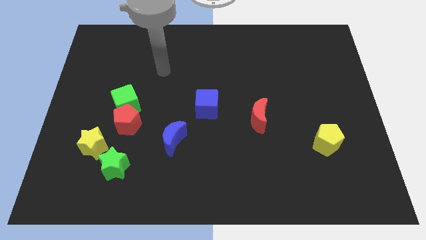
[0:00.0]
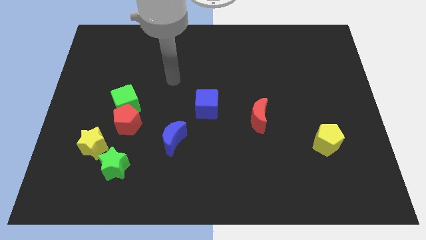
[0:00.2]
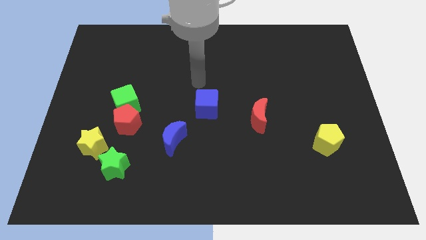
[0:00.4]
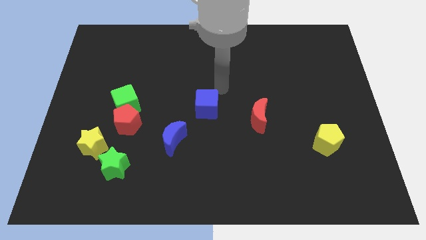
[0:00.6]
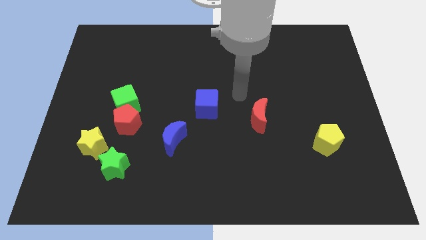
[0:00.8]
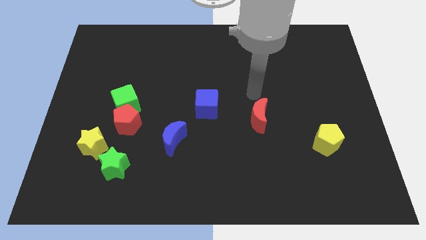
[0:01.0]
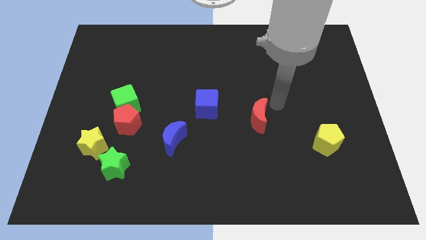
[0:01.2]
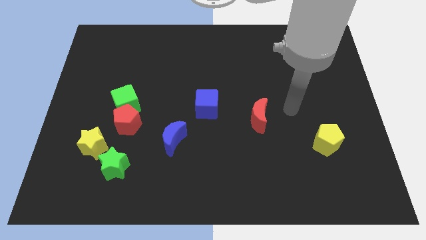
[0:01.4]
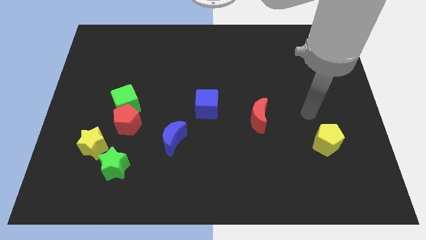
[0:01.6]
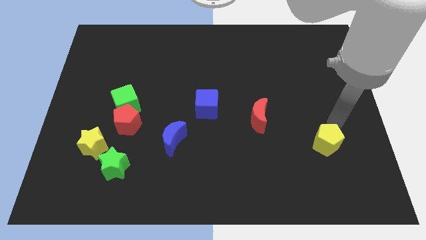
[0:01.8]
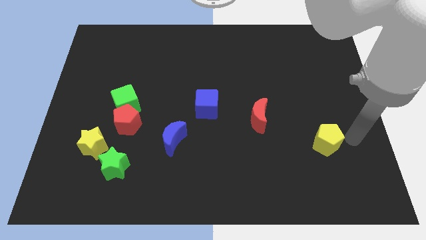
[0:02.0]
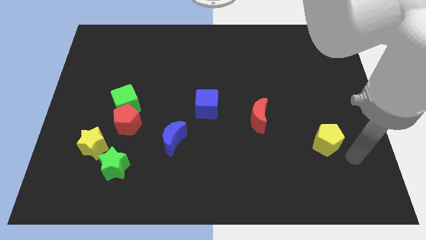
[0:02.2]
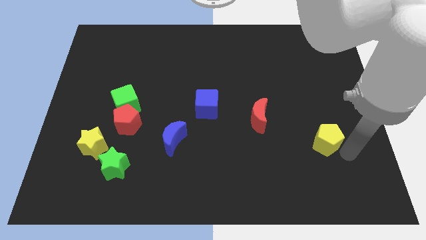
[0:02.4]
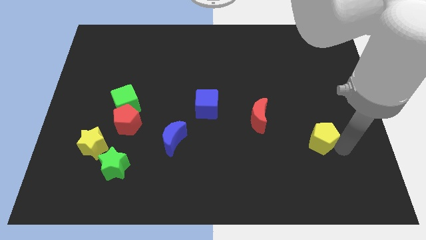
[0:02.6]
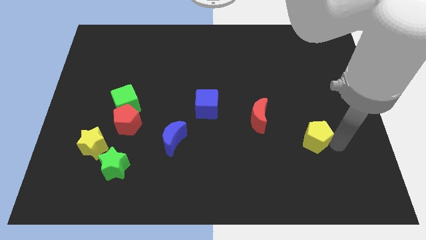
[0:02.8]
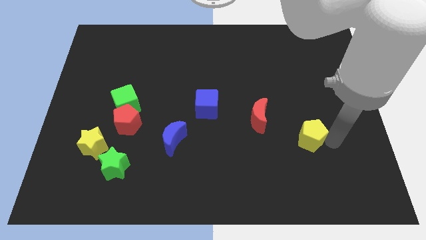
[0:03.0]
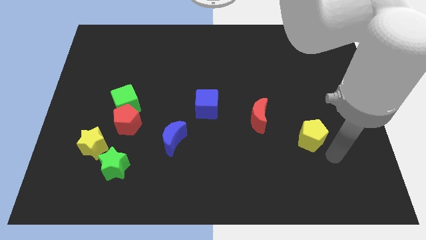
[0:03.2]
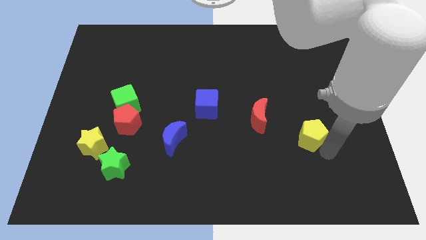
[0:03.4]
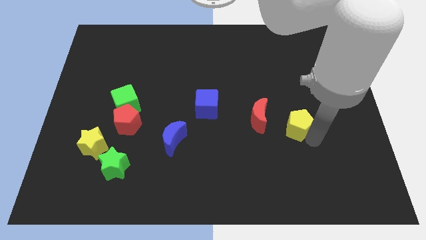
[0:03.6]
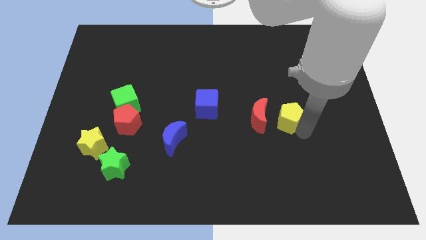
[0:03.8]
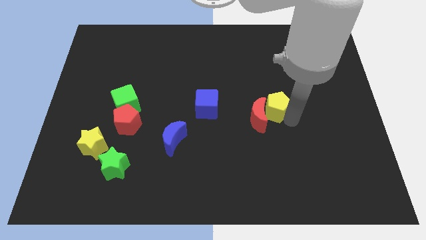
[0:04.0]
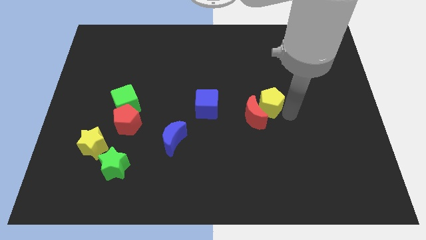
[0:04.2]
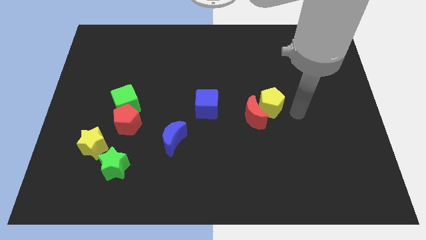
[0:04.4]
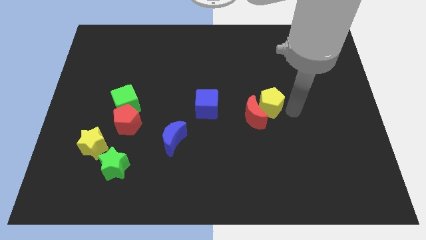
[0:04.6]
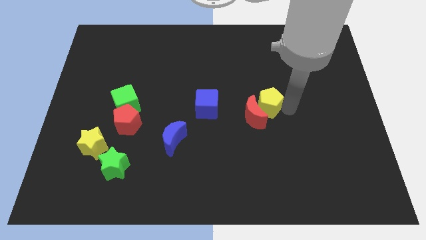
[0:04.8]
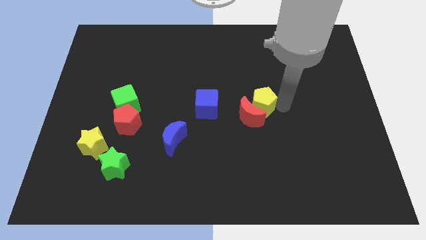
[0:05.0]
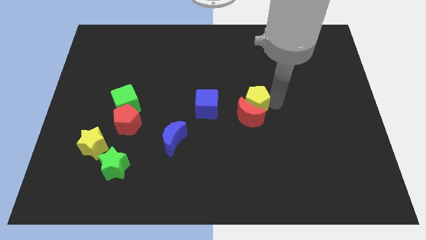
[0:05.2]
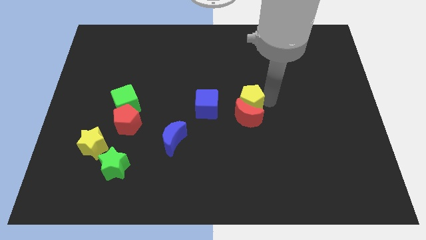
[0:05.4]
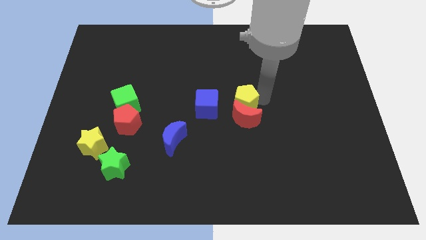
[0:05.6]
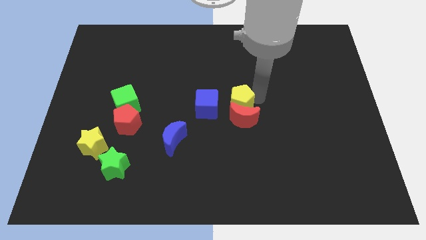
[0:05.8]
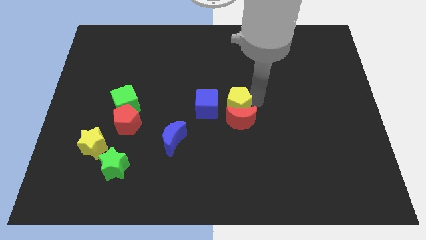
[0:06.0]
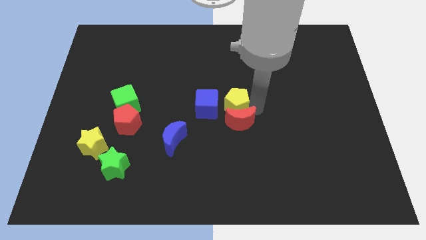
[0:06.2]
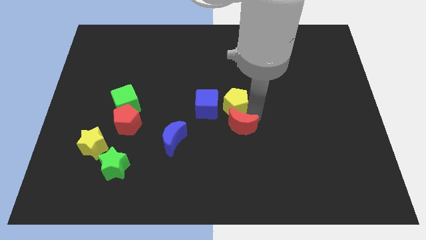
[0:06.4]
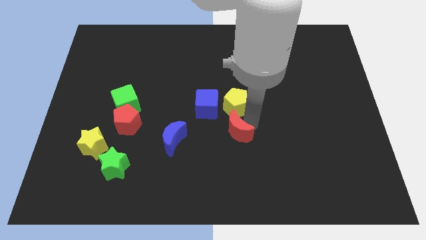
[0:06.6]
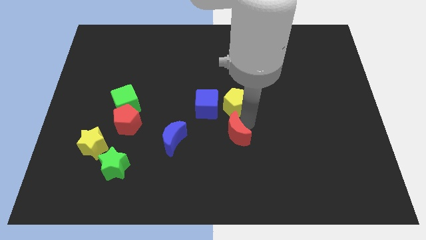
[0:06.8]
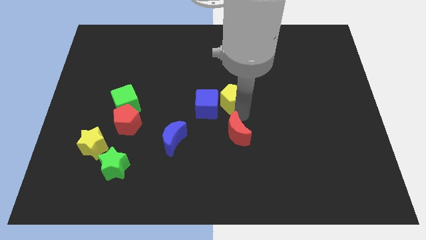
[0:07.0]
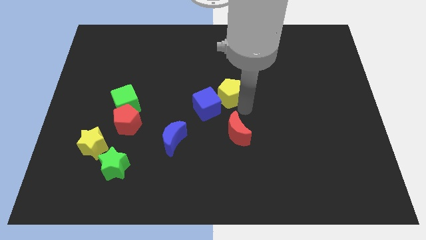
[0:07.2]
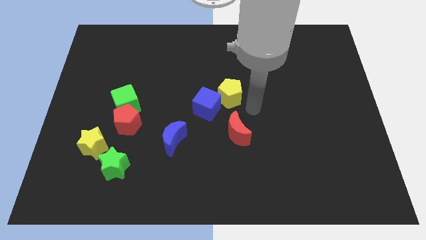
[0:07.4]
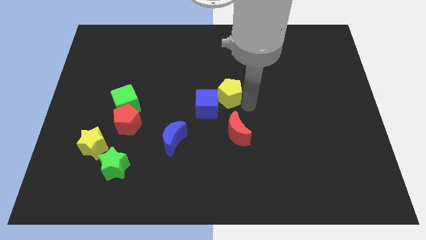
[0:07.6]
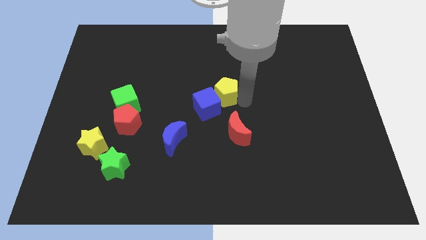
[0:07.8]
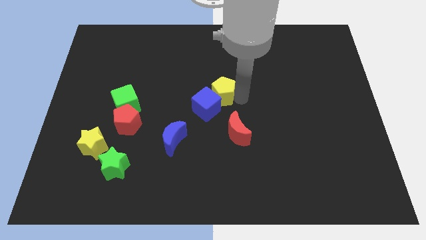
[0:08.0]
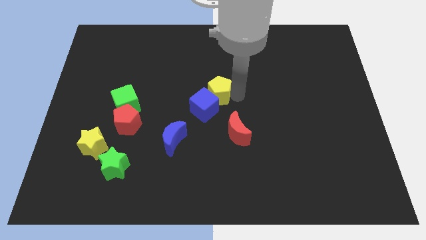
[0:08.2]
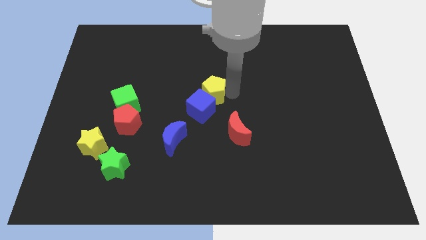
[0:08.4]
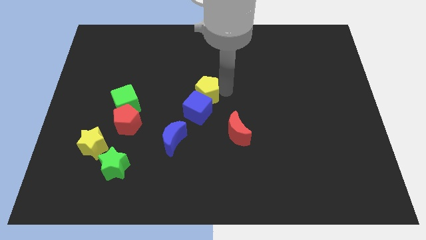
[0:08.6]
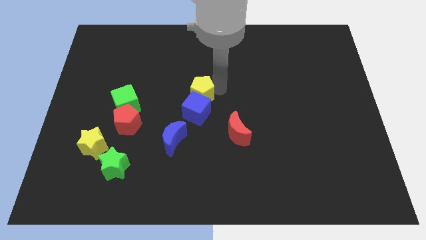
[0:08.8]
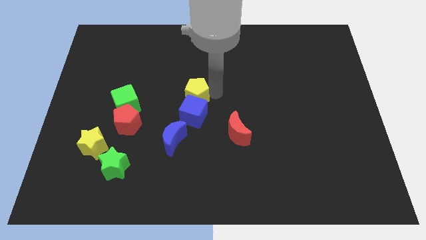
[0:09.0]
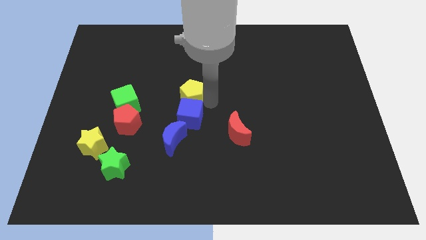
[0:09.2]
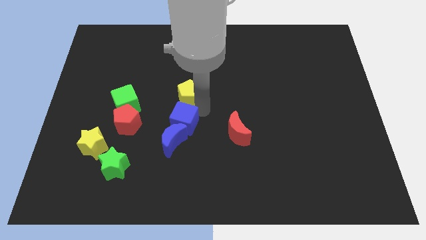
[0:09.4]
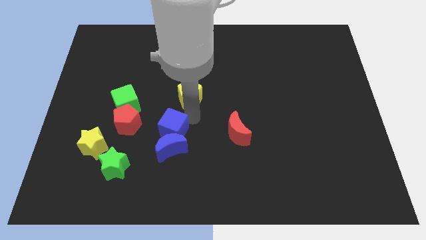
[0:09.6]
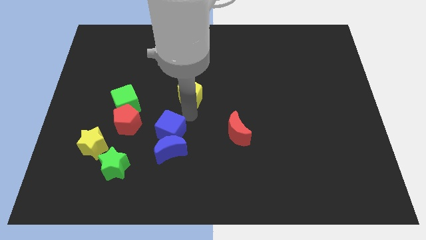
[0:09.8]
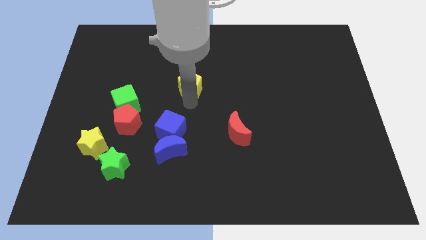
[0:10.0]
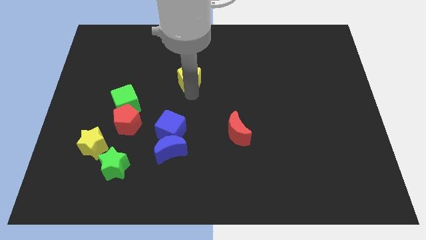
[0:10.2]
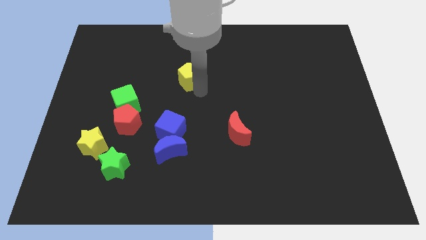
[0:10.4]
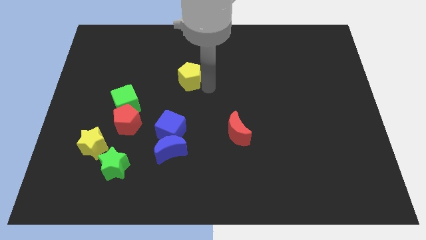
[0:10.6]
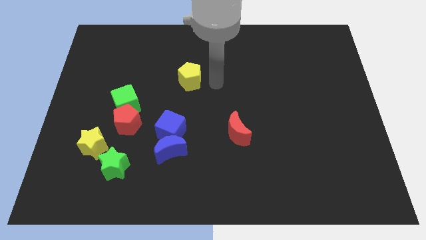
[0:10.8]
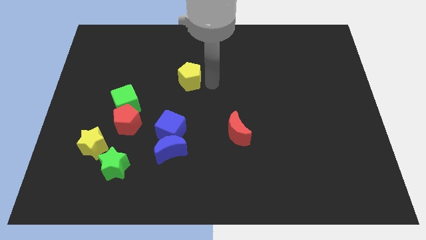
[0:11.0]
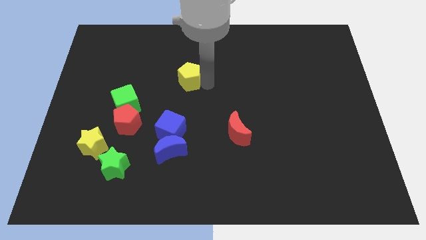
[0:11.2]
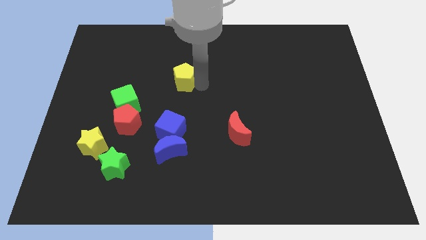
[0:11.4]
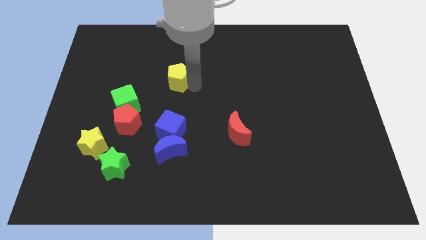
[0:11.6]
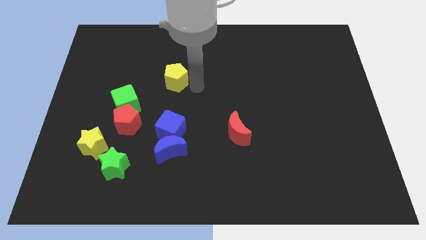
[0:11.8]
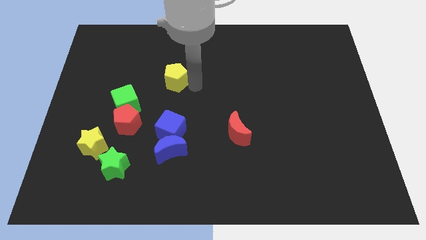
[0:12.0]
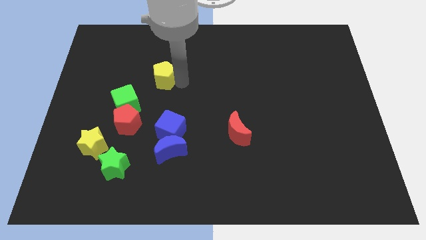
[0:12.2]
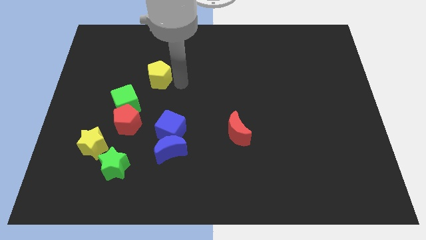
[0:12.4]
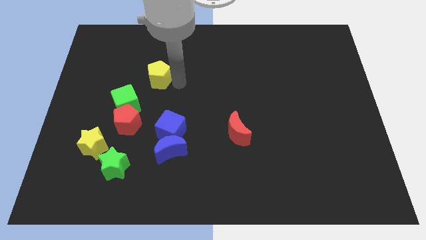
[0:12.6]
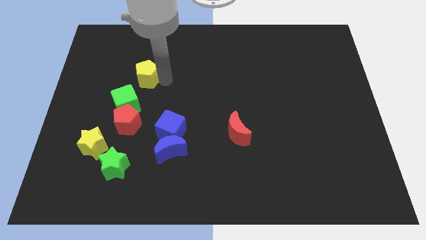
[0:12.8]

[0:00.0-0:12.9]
slide the yellow pentagon to the top side of the green cube
